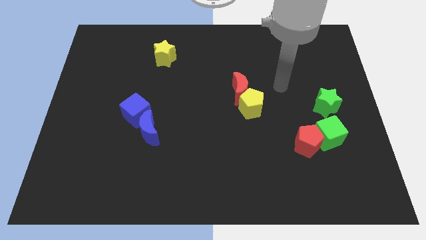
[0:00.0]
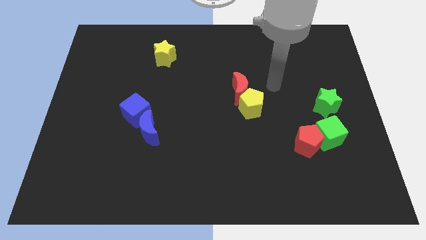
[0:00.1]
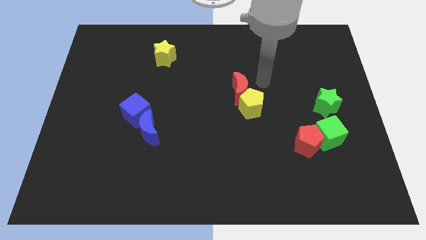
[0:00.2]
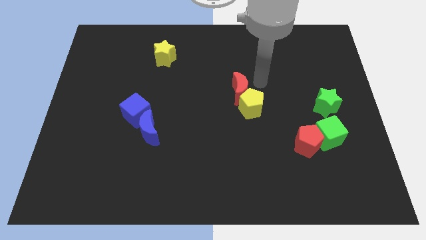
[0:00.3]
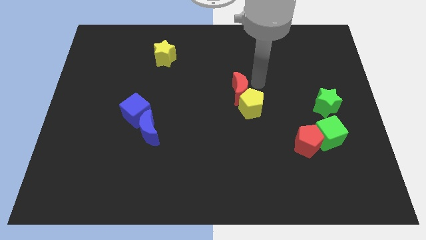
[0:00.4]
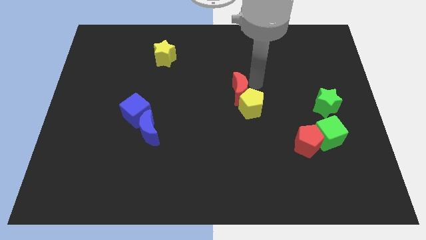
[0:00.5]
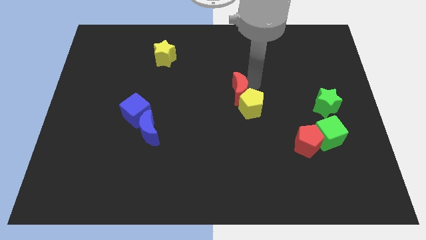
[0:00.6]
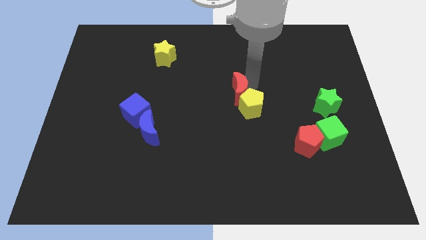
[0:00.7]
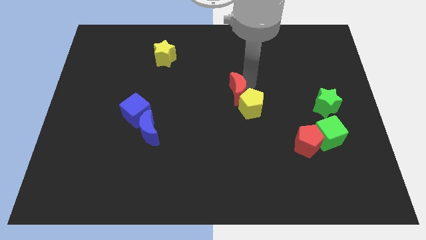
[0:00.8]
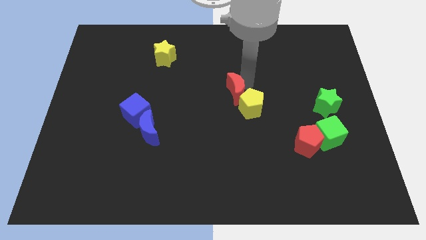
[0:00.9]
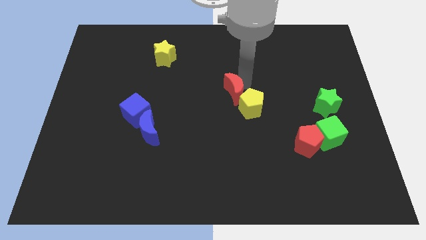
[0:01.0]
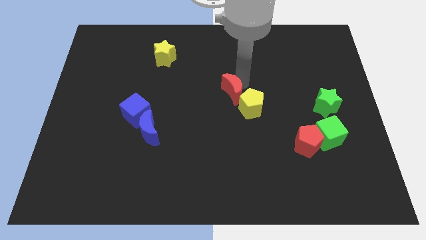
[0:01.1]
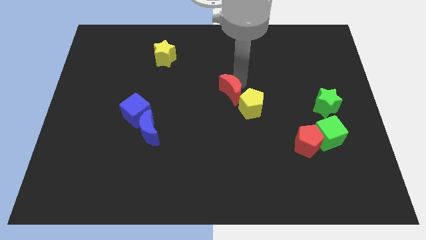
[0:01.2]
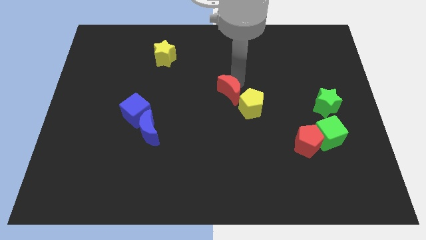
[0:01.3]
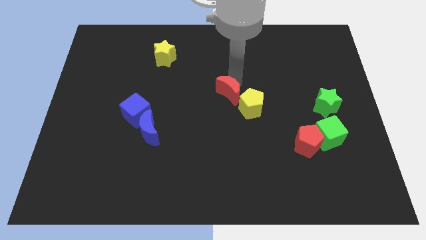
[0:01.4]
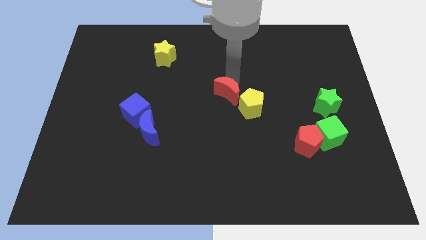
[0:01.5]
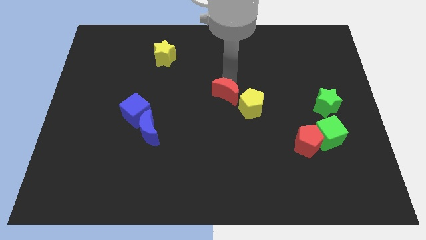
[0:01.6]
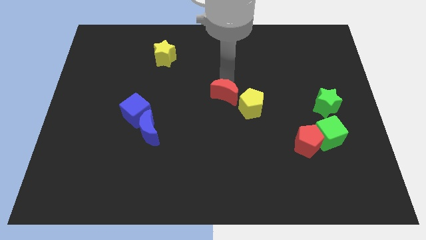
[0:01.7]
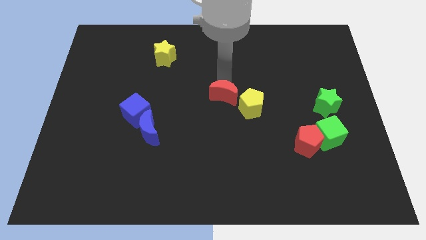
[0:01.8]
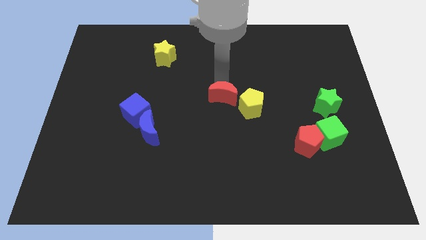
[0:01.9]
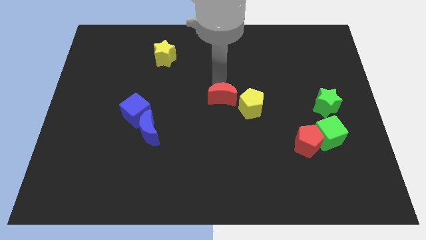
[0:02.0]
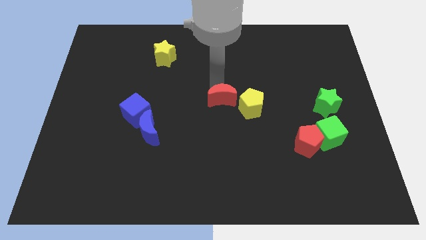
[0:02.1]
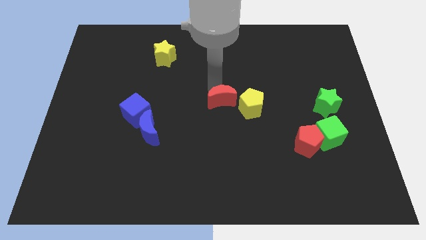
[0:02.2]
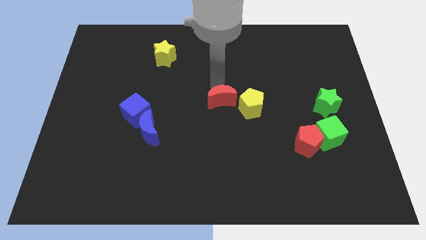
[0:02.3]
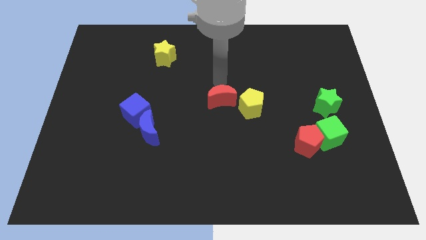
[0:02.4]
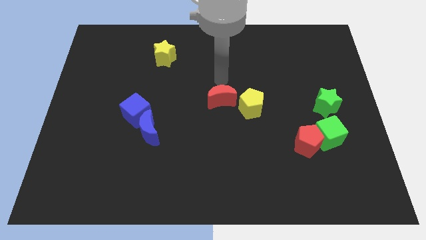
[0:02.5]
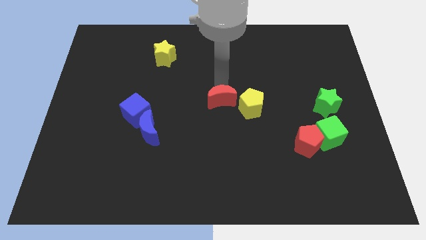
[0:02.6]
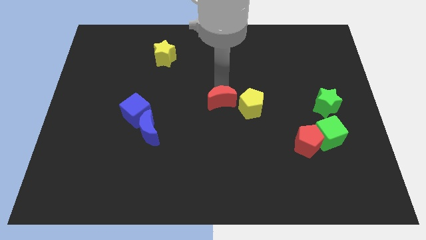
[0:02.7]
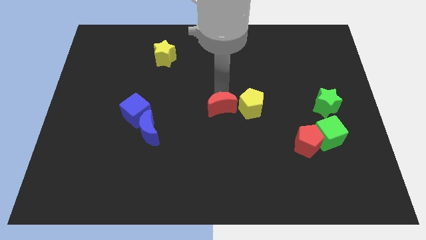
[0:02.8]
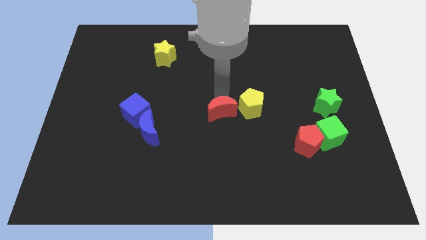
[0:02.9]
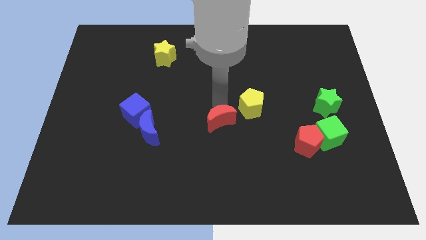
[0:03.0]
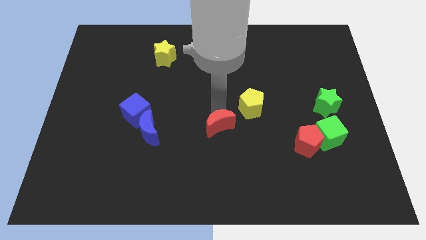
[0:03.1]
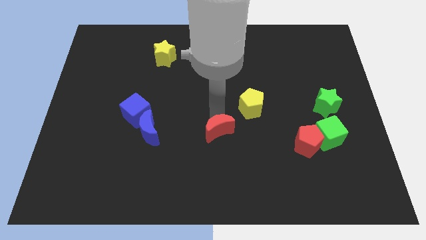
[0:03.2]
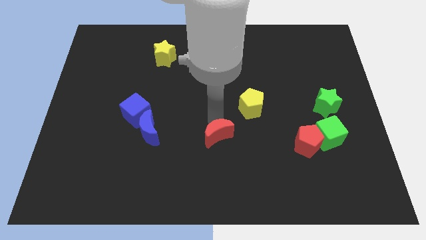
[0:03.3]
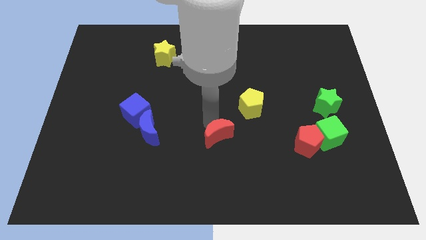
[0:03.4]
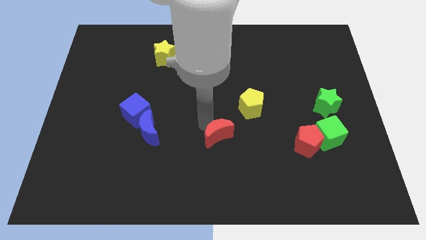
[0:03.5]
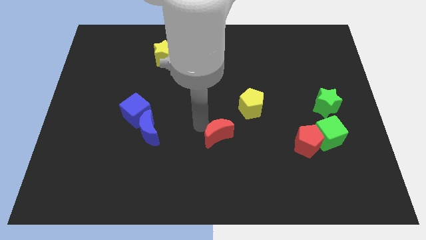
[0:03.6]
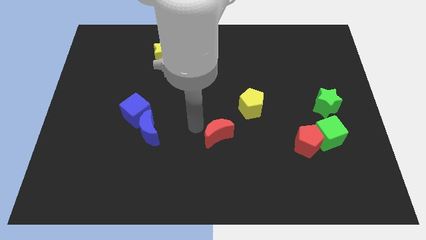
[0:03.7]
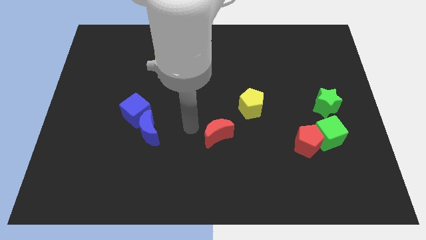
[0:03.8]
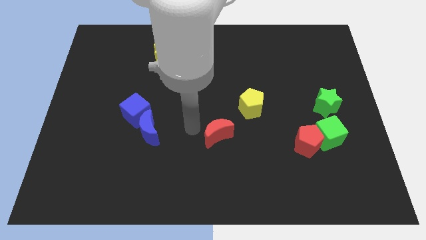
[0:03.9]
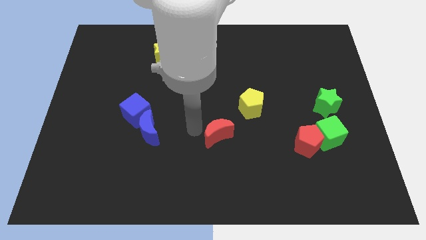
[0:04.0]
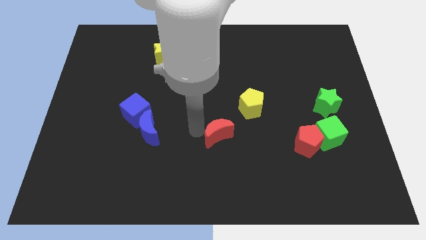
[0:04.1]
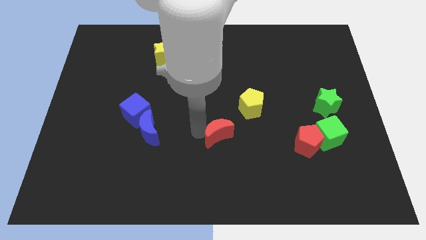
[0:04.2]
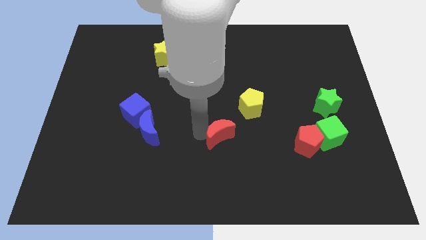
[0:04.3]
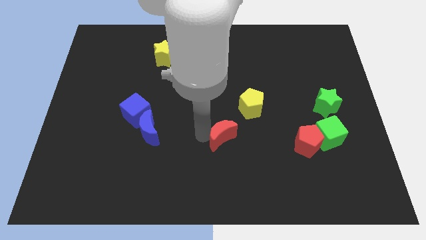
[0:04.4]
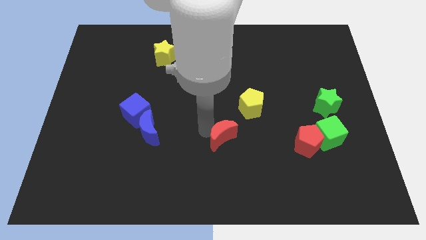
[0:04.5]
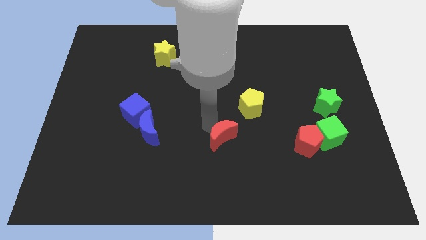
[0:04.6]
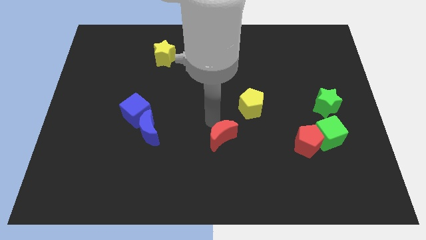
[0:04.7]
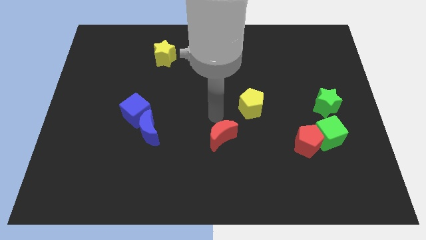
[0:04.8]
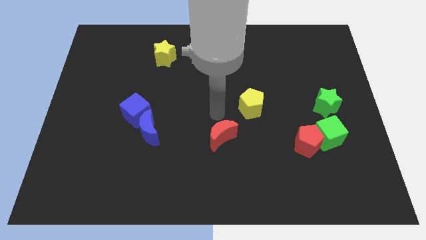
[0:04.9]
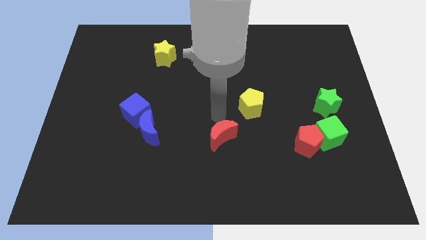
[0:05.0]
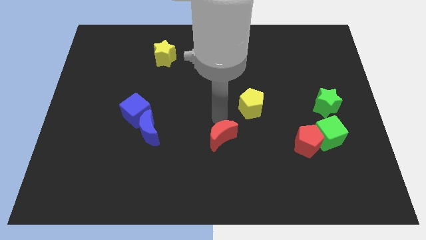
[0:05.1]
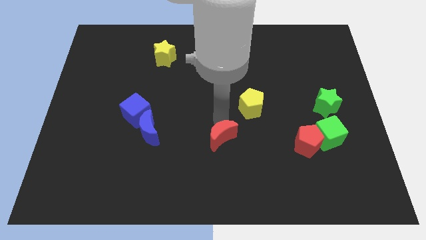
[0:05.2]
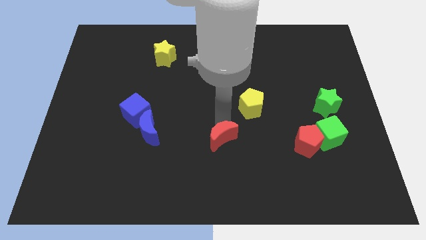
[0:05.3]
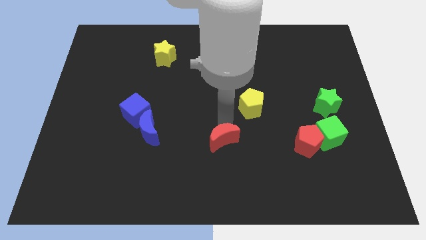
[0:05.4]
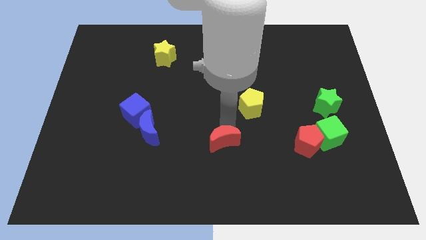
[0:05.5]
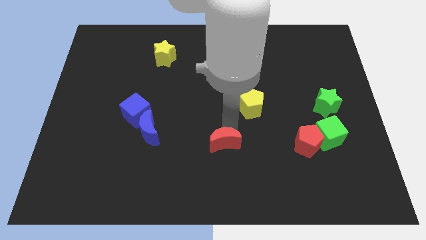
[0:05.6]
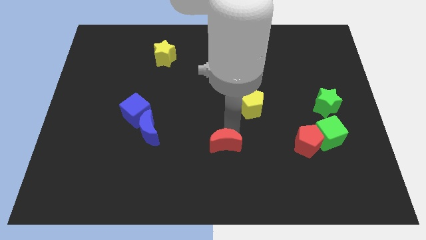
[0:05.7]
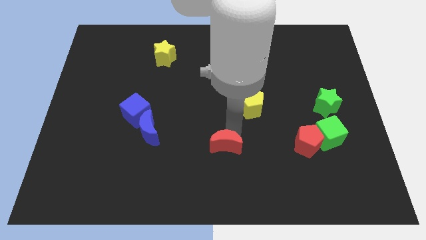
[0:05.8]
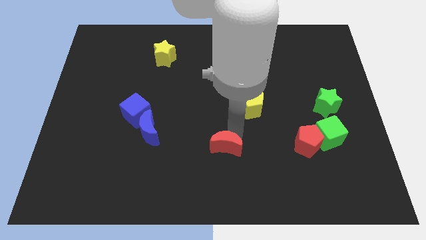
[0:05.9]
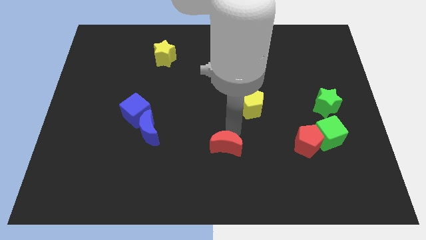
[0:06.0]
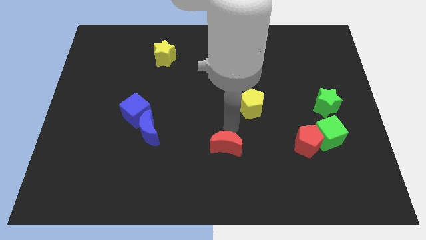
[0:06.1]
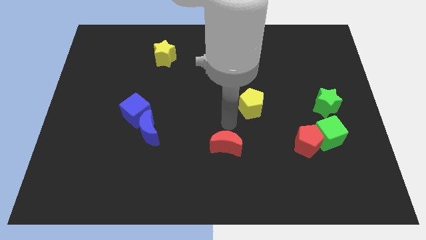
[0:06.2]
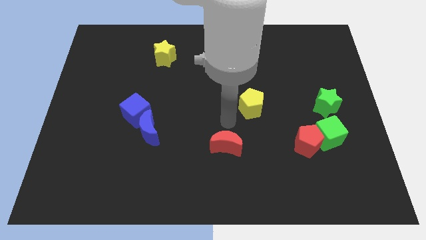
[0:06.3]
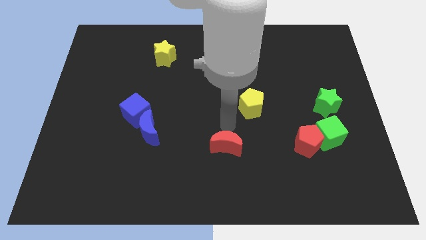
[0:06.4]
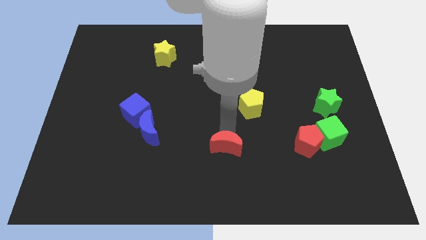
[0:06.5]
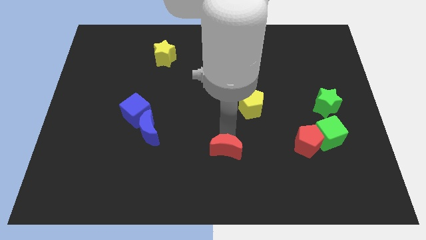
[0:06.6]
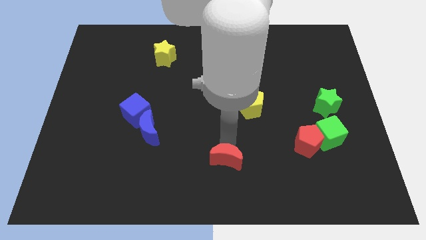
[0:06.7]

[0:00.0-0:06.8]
push the red moon to the bottom side
